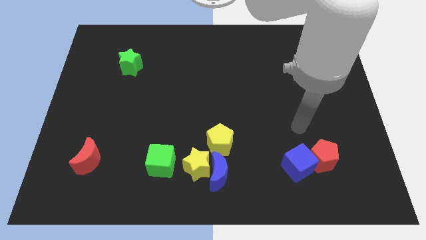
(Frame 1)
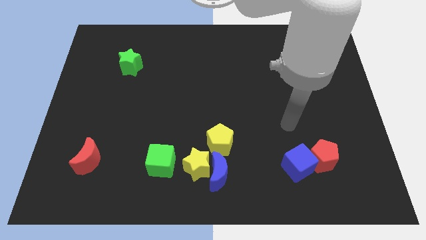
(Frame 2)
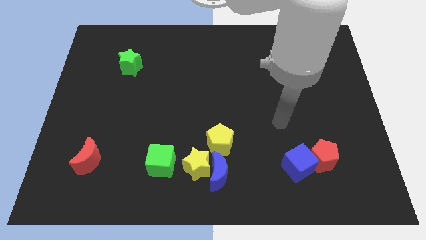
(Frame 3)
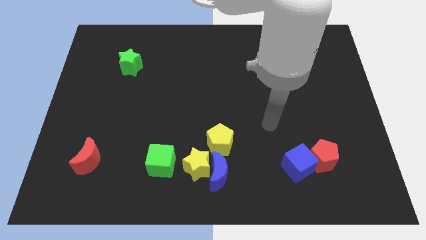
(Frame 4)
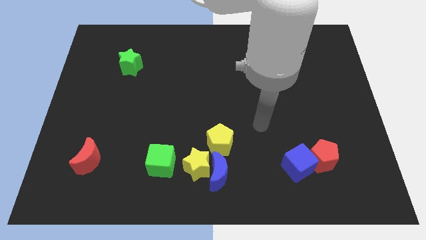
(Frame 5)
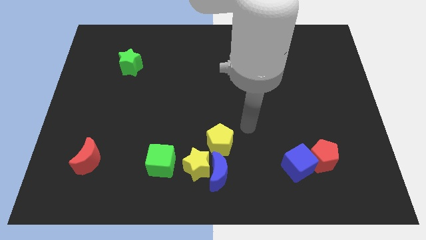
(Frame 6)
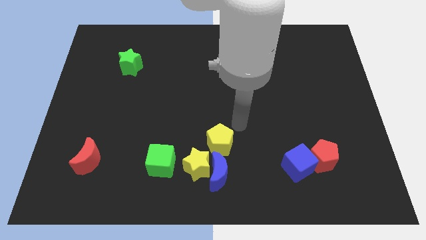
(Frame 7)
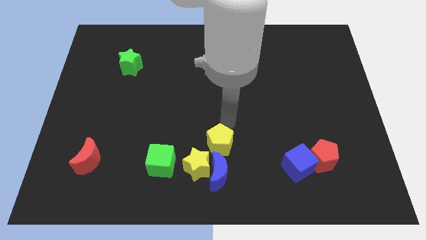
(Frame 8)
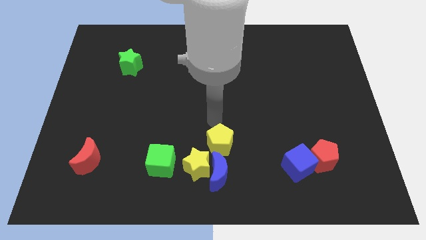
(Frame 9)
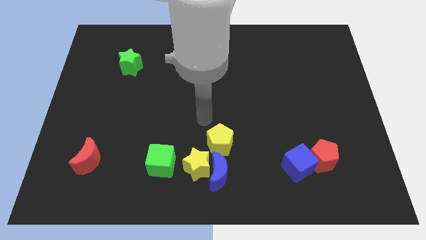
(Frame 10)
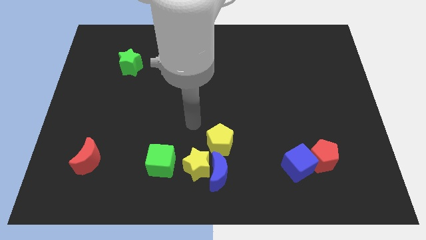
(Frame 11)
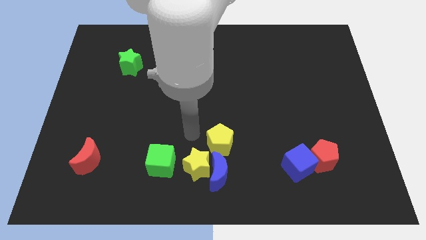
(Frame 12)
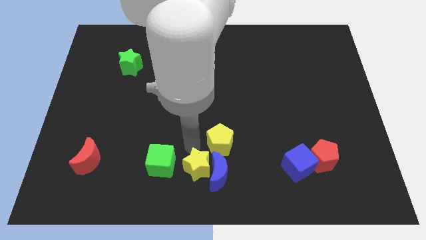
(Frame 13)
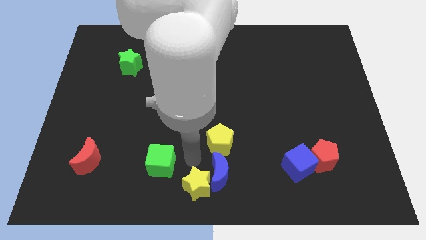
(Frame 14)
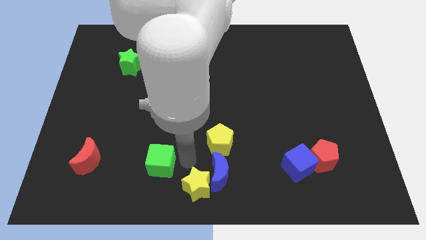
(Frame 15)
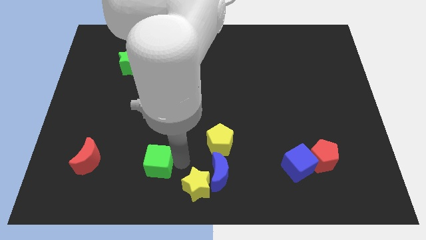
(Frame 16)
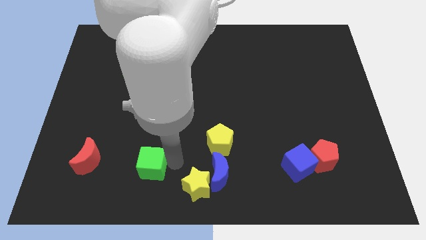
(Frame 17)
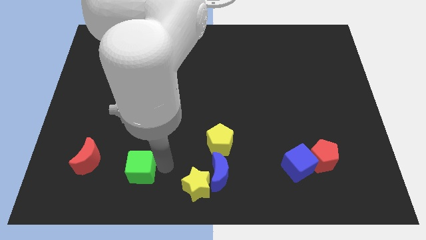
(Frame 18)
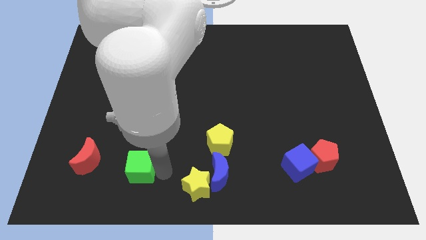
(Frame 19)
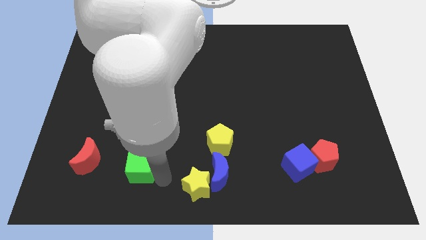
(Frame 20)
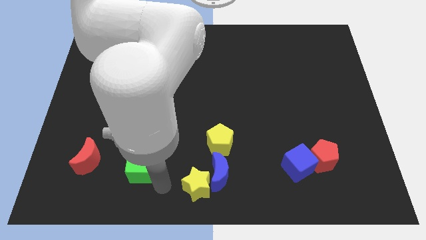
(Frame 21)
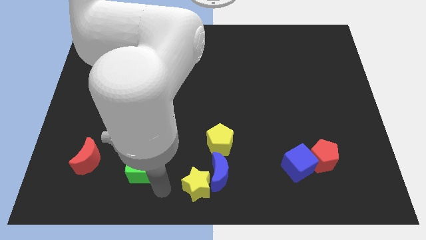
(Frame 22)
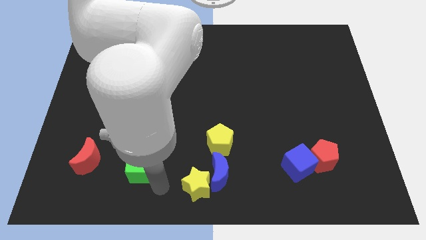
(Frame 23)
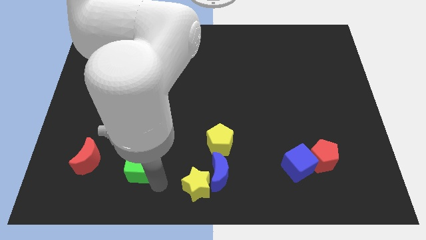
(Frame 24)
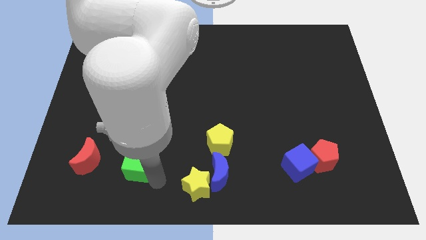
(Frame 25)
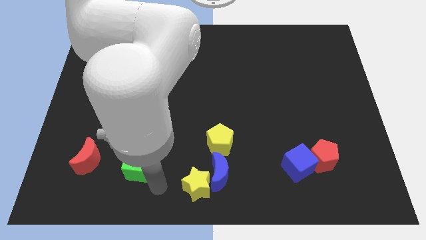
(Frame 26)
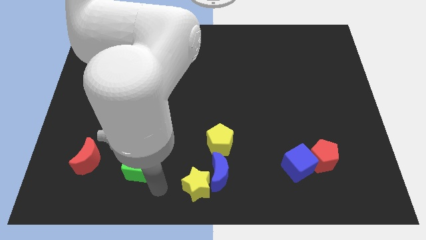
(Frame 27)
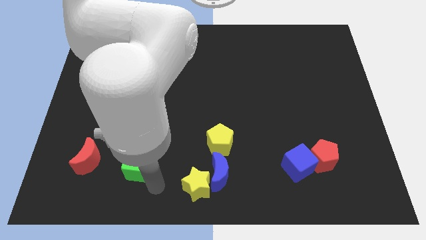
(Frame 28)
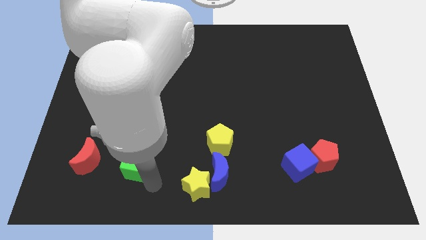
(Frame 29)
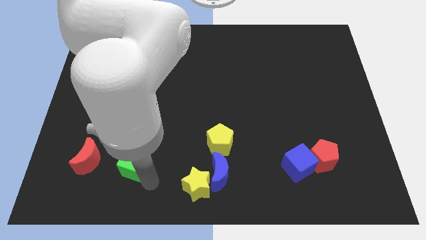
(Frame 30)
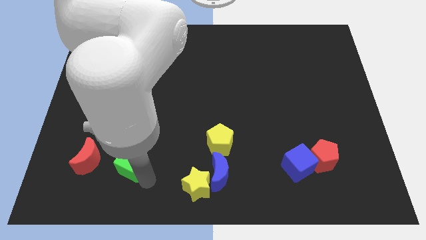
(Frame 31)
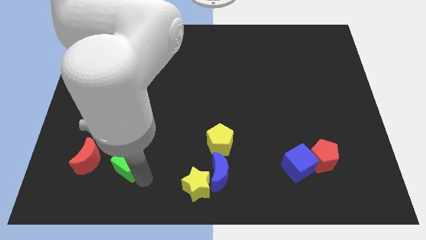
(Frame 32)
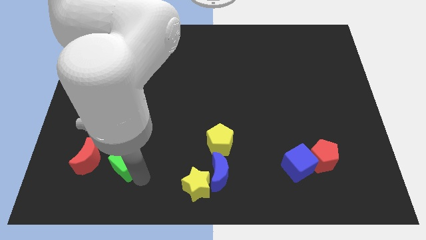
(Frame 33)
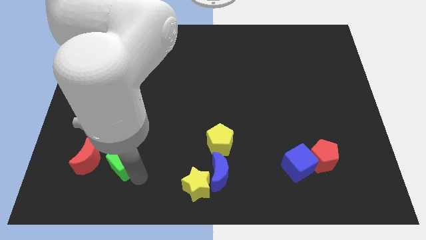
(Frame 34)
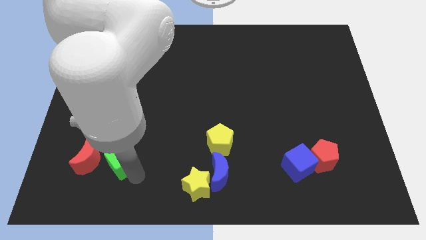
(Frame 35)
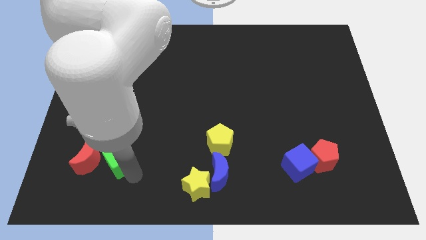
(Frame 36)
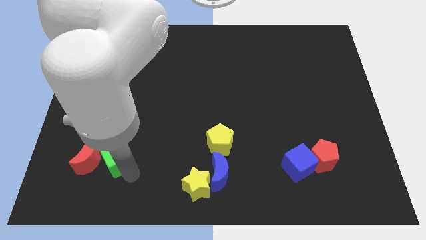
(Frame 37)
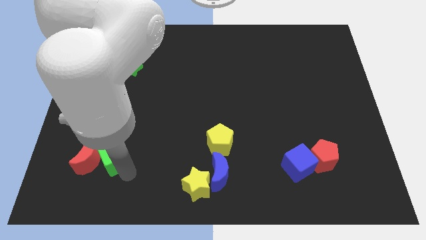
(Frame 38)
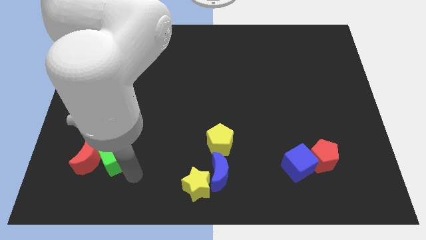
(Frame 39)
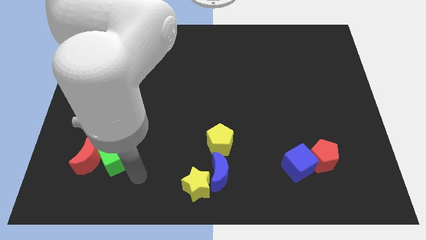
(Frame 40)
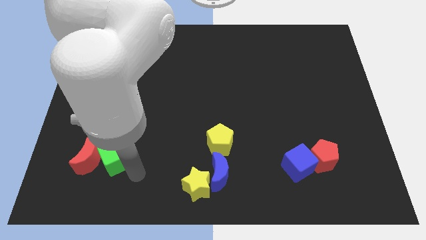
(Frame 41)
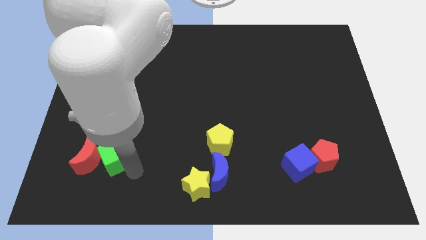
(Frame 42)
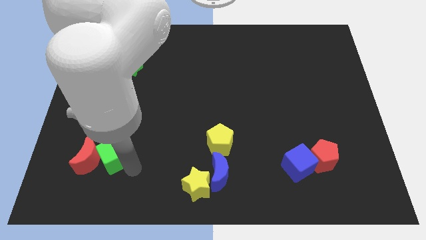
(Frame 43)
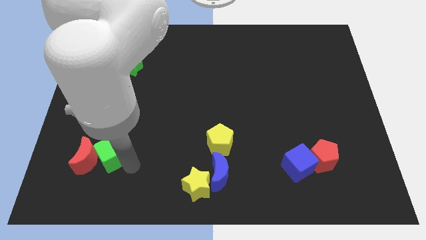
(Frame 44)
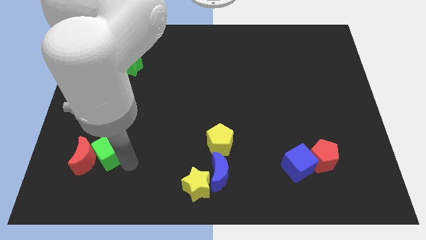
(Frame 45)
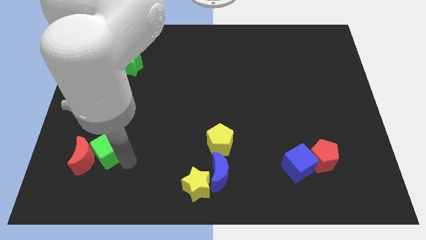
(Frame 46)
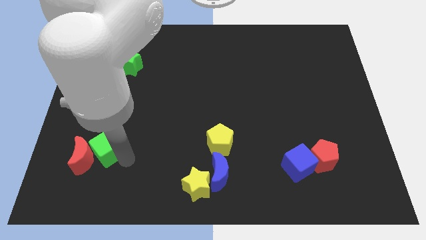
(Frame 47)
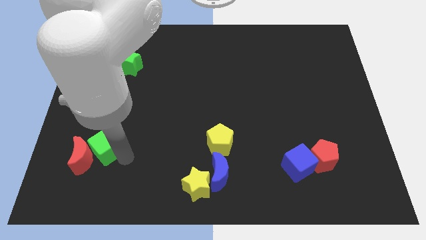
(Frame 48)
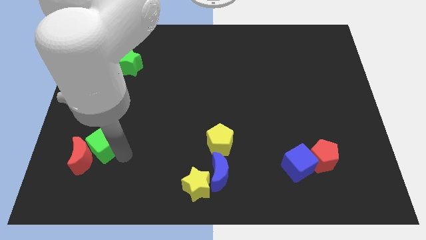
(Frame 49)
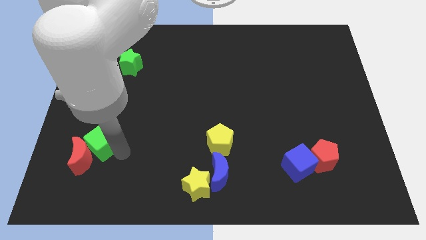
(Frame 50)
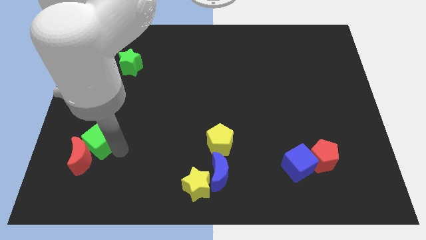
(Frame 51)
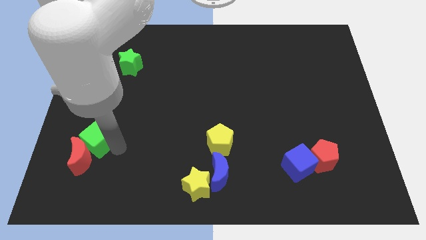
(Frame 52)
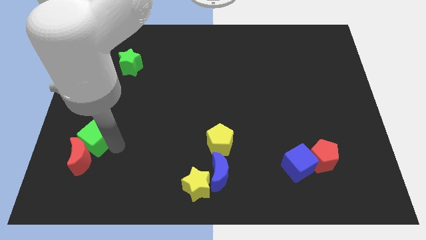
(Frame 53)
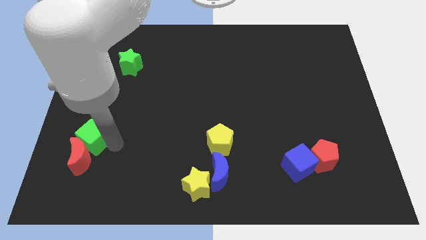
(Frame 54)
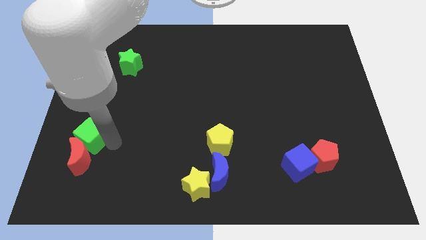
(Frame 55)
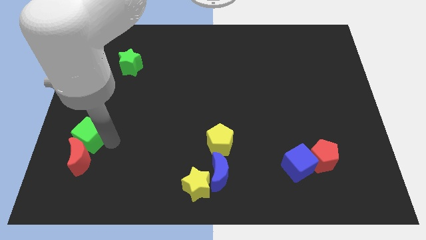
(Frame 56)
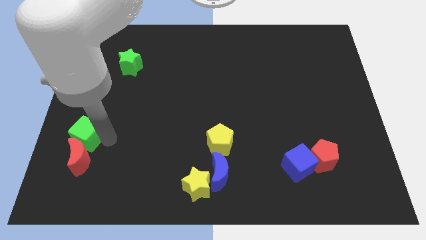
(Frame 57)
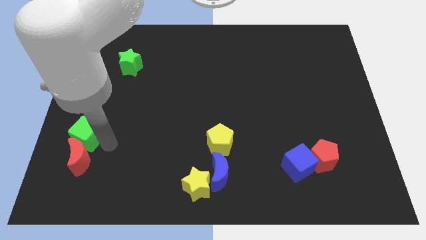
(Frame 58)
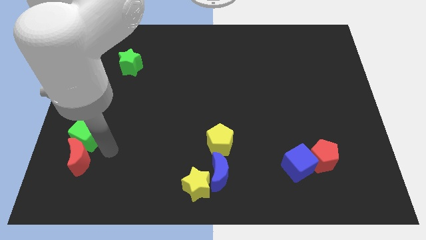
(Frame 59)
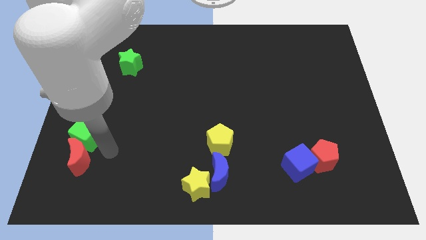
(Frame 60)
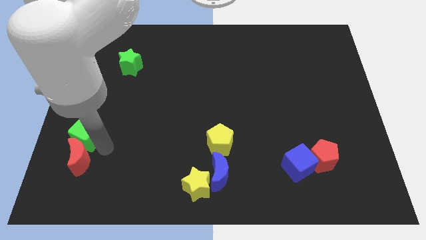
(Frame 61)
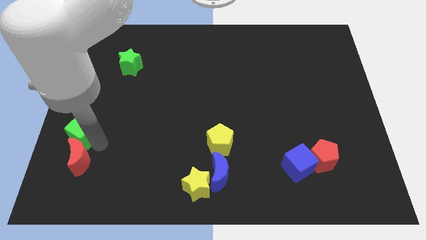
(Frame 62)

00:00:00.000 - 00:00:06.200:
move the green cube to the left side of the board
